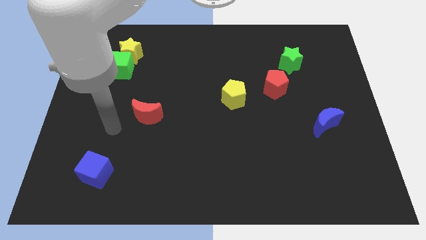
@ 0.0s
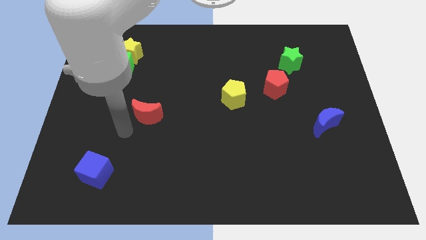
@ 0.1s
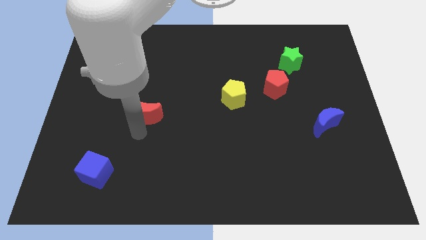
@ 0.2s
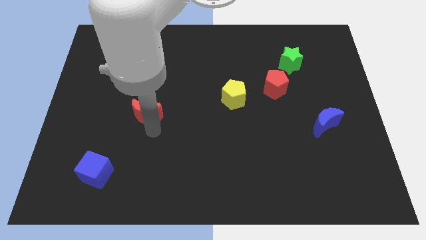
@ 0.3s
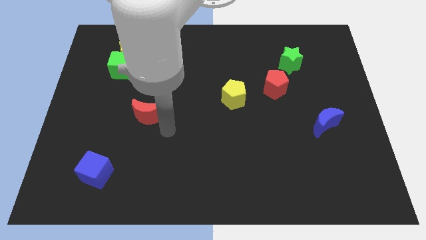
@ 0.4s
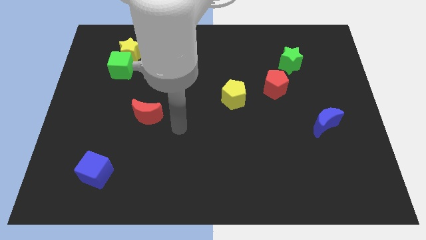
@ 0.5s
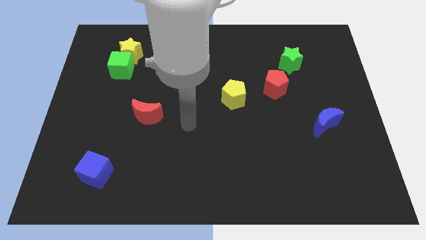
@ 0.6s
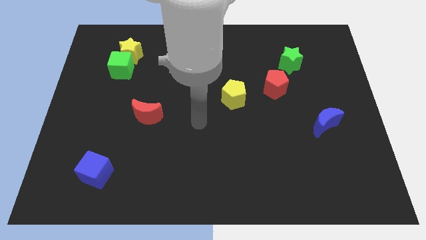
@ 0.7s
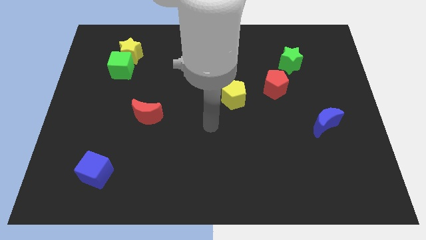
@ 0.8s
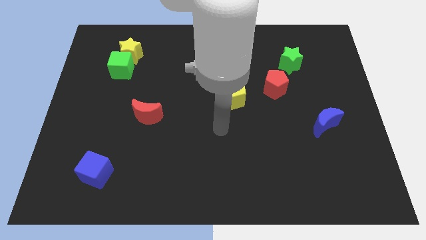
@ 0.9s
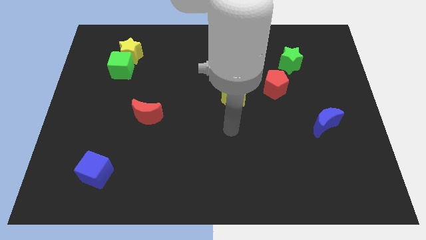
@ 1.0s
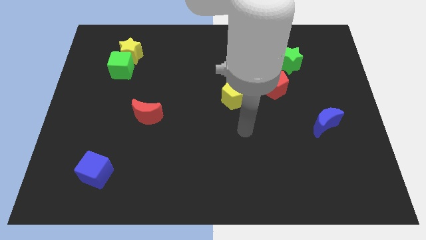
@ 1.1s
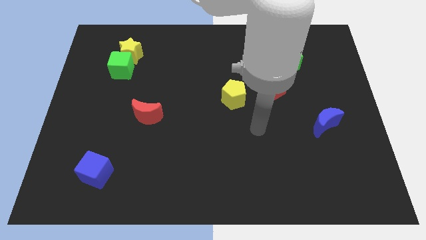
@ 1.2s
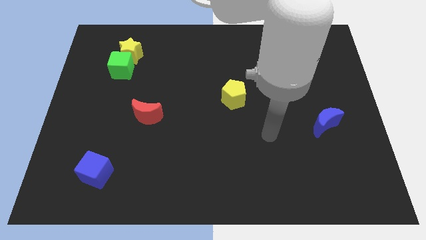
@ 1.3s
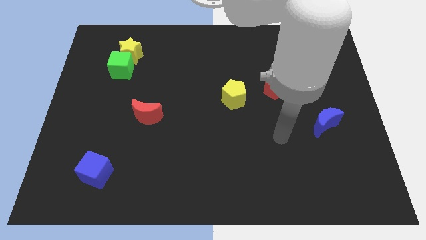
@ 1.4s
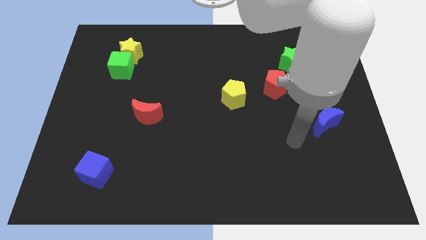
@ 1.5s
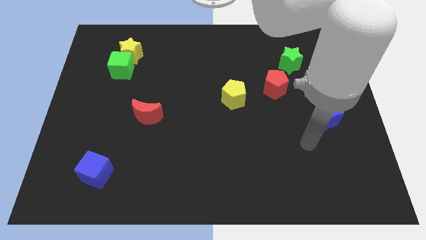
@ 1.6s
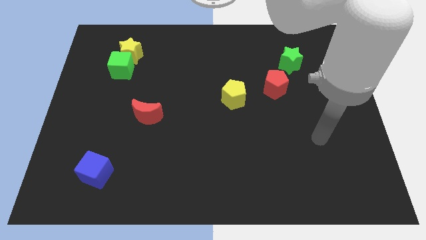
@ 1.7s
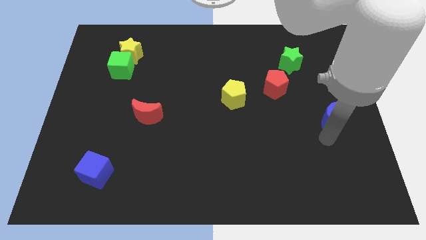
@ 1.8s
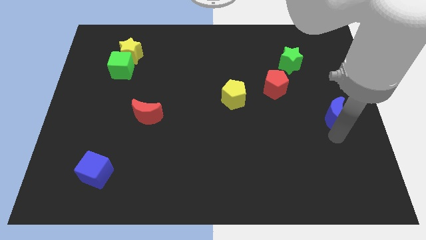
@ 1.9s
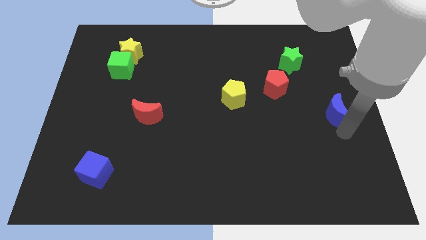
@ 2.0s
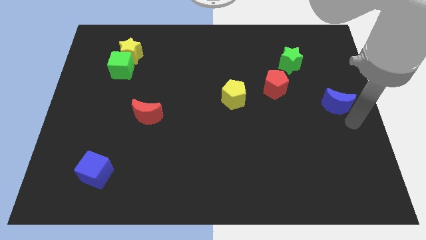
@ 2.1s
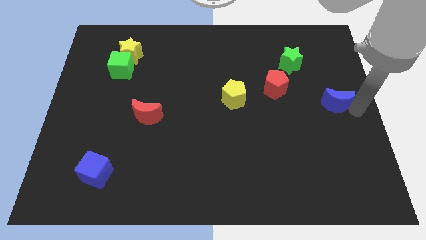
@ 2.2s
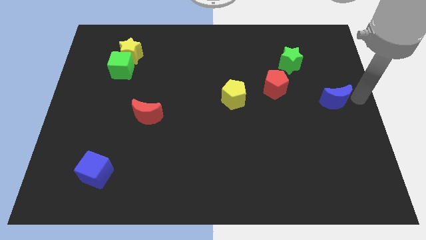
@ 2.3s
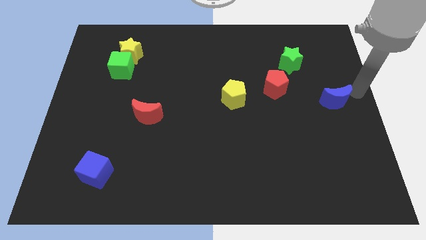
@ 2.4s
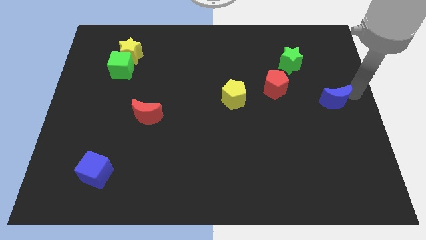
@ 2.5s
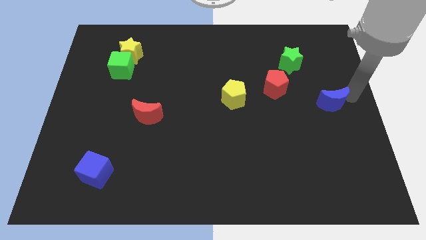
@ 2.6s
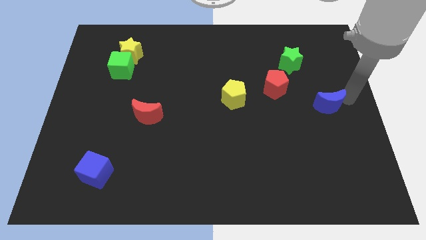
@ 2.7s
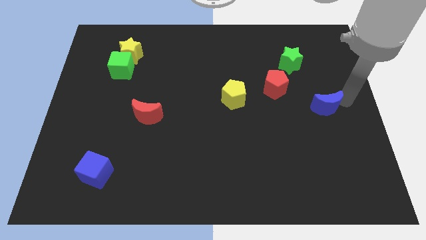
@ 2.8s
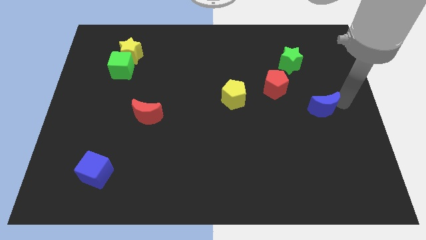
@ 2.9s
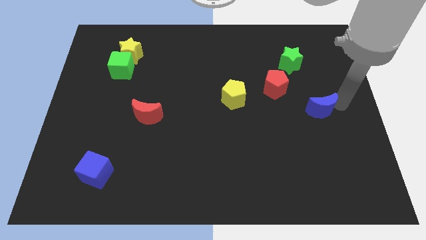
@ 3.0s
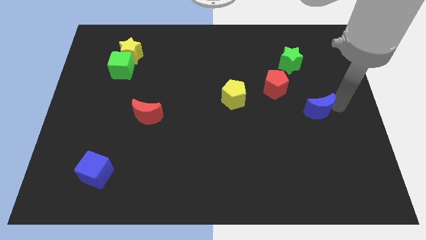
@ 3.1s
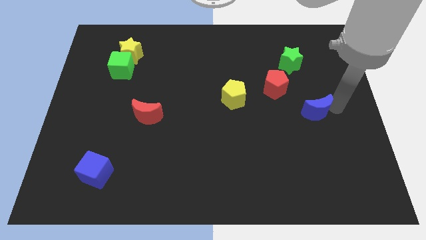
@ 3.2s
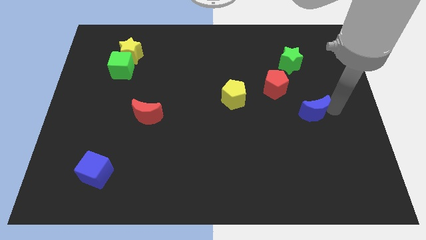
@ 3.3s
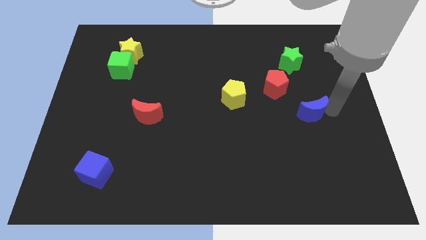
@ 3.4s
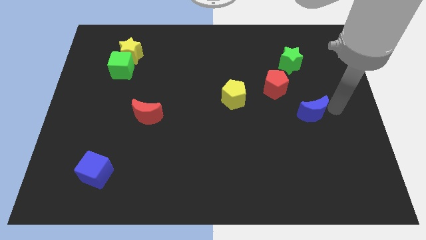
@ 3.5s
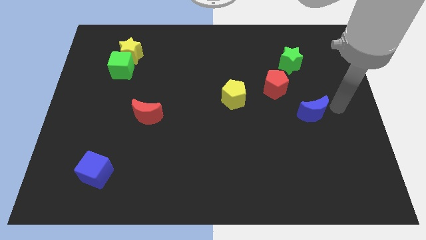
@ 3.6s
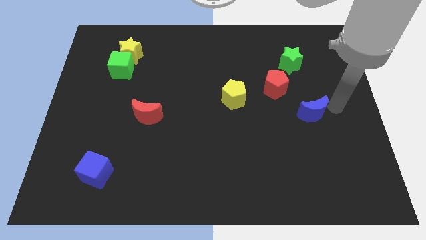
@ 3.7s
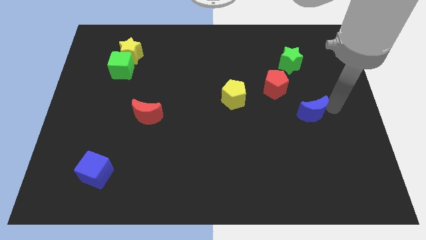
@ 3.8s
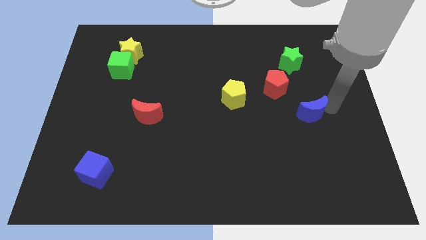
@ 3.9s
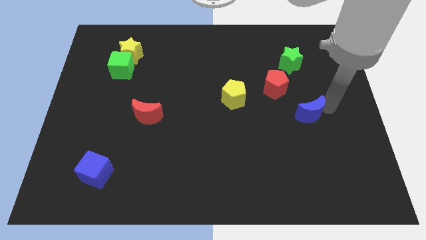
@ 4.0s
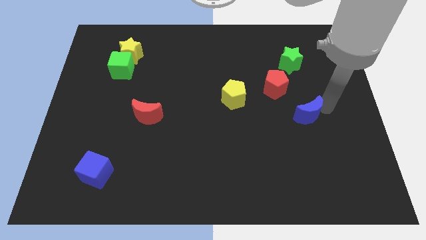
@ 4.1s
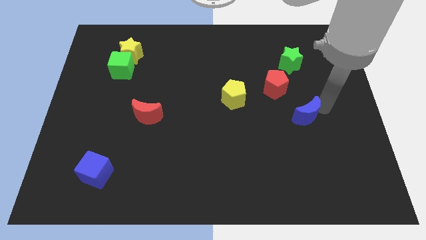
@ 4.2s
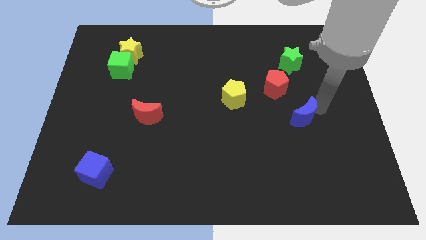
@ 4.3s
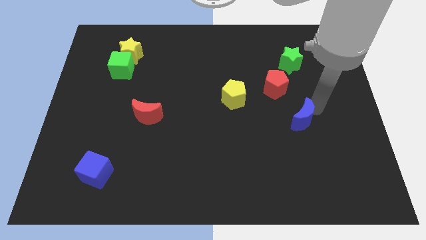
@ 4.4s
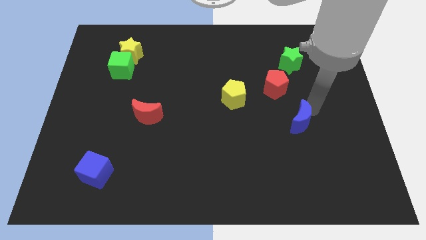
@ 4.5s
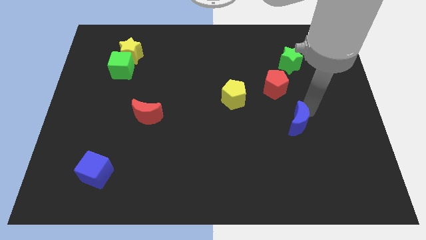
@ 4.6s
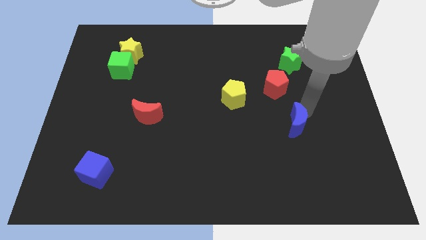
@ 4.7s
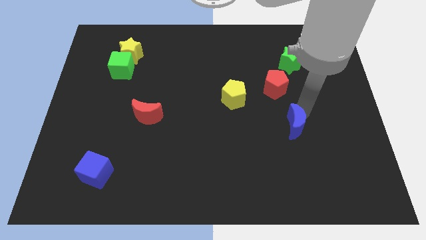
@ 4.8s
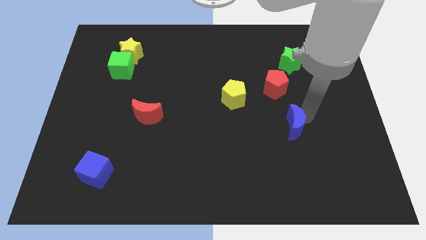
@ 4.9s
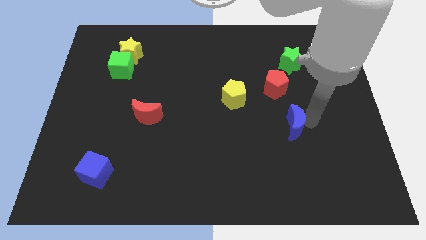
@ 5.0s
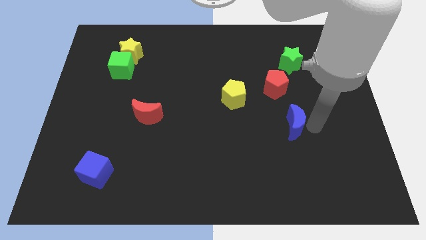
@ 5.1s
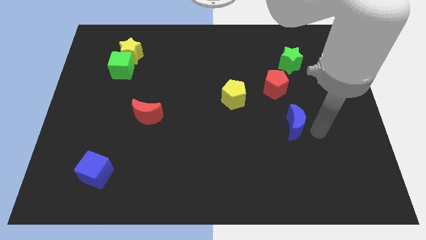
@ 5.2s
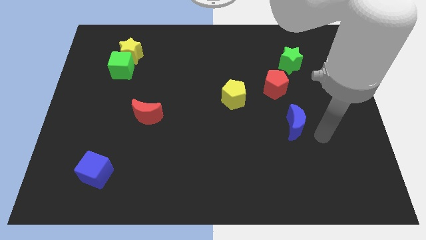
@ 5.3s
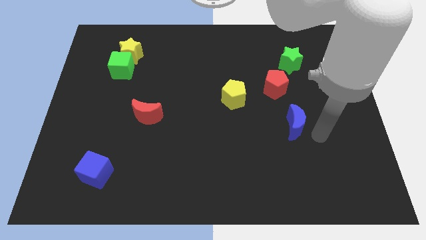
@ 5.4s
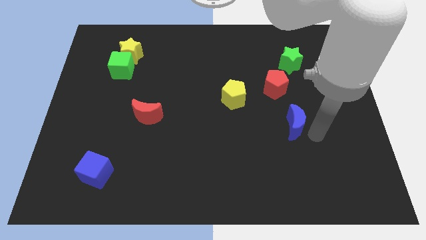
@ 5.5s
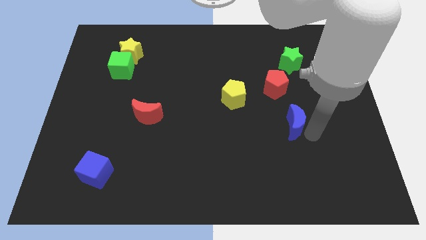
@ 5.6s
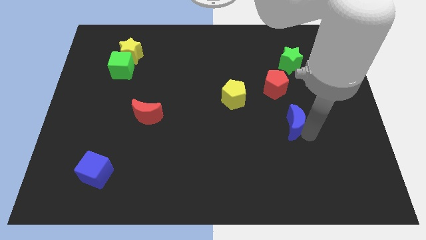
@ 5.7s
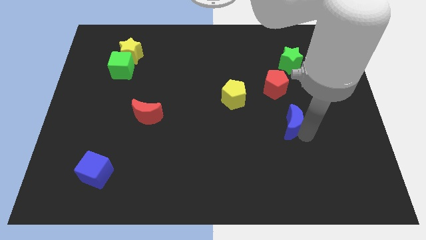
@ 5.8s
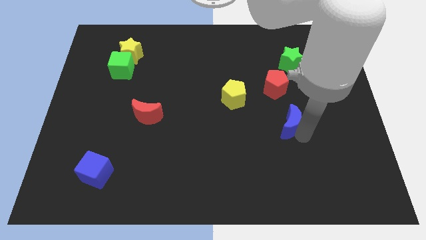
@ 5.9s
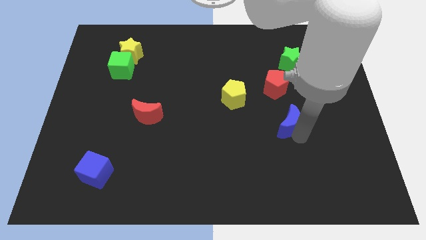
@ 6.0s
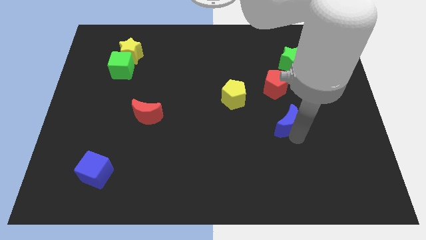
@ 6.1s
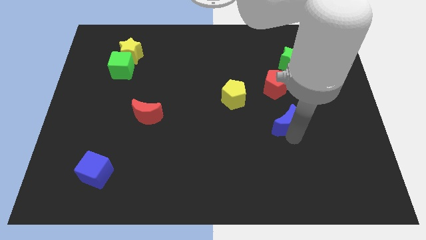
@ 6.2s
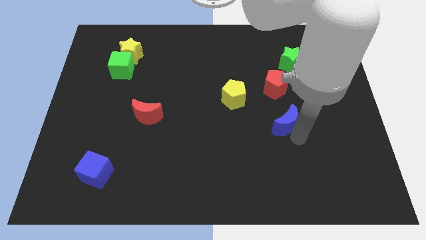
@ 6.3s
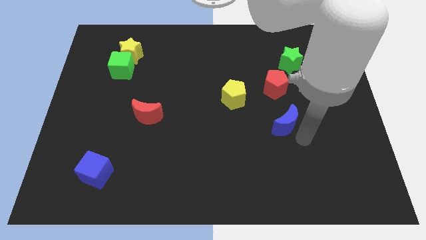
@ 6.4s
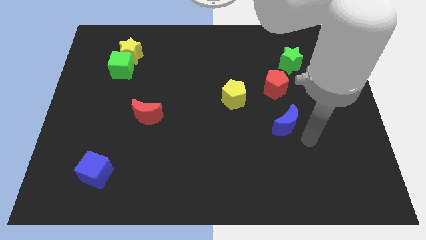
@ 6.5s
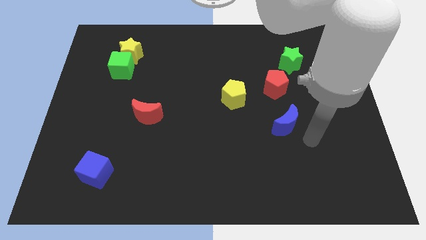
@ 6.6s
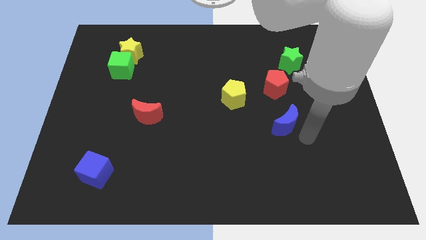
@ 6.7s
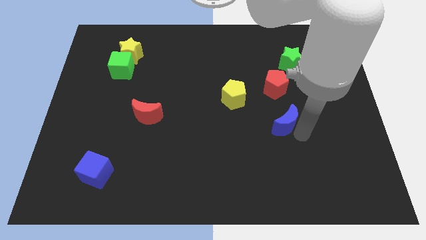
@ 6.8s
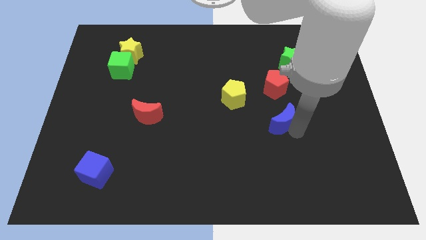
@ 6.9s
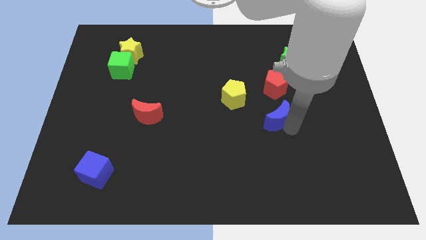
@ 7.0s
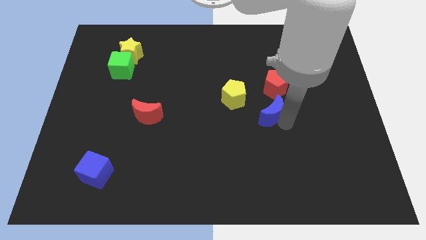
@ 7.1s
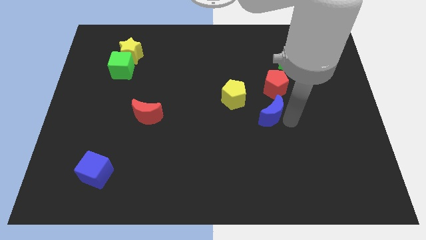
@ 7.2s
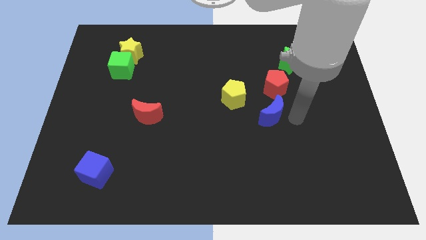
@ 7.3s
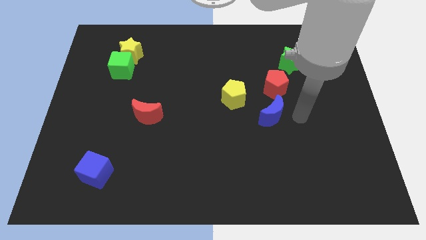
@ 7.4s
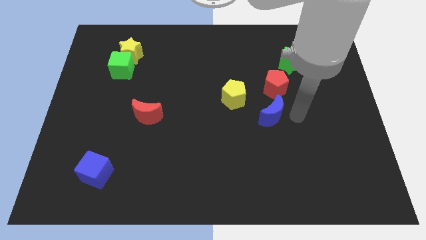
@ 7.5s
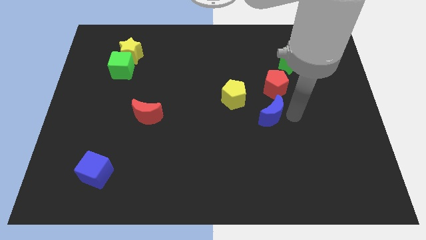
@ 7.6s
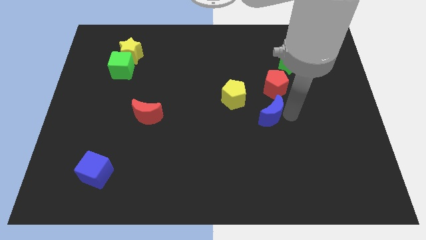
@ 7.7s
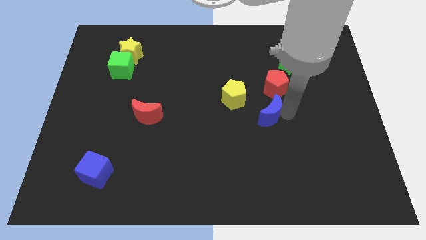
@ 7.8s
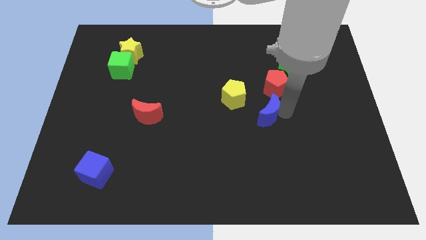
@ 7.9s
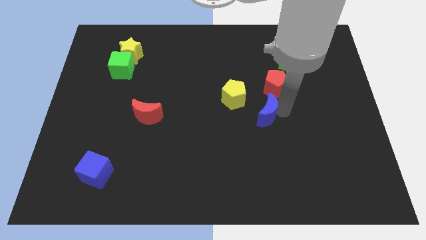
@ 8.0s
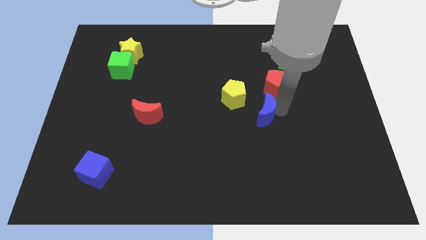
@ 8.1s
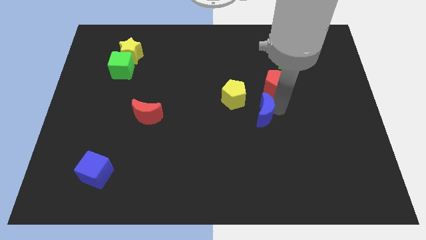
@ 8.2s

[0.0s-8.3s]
put the blue moon to the center of the board
